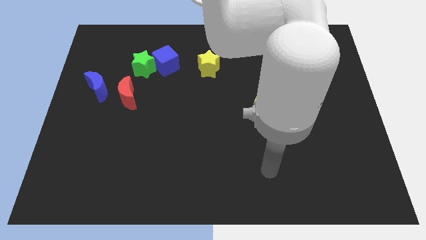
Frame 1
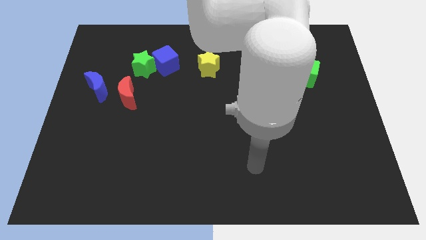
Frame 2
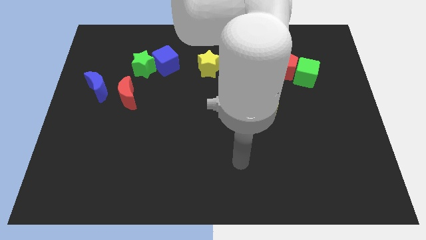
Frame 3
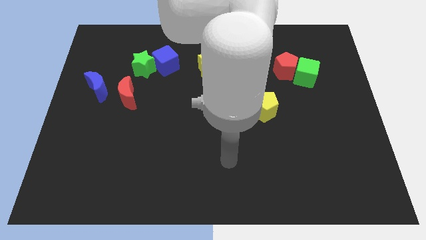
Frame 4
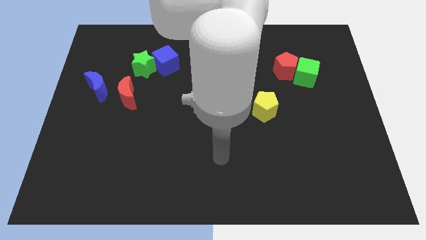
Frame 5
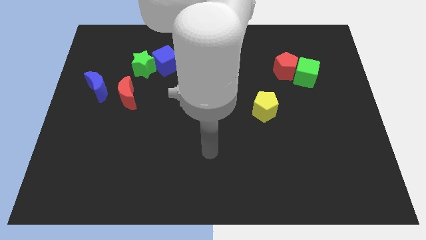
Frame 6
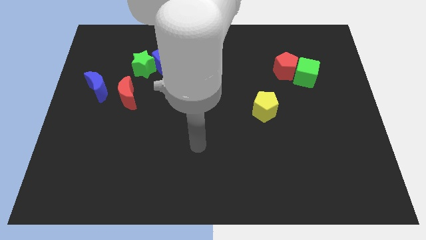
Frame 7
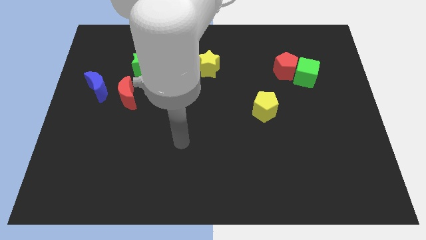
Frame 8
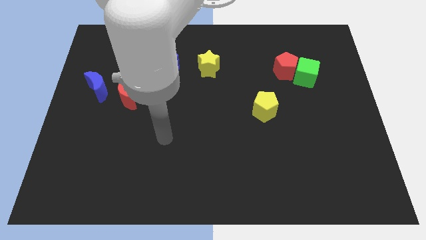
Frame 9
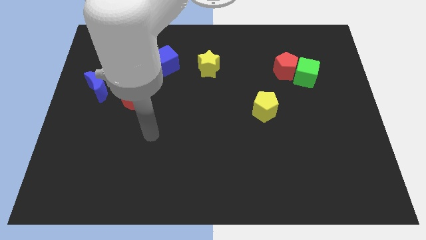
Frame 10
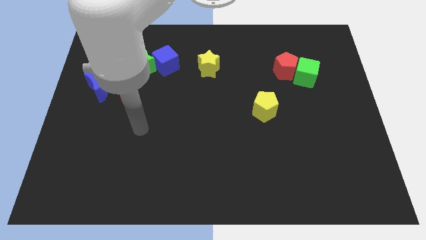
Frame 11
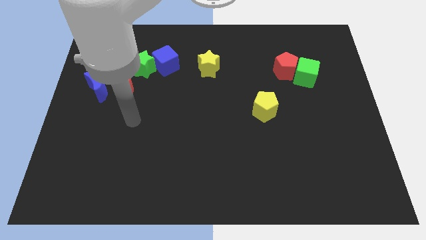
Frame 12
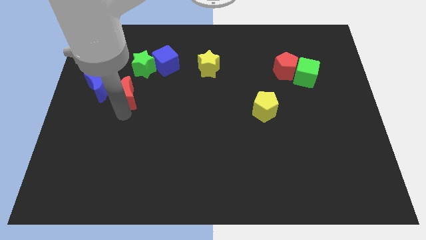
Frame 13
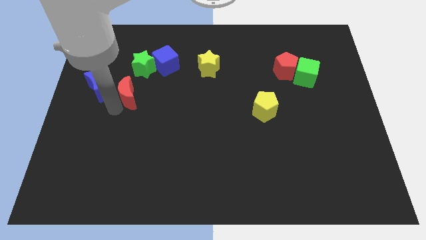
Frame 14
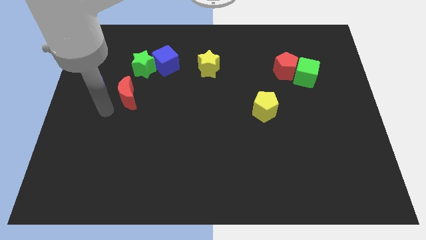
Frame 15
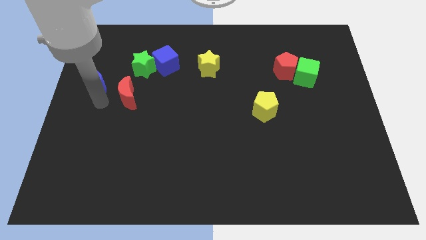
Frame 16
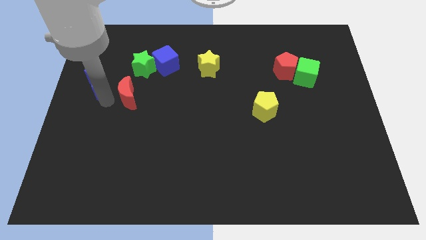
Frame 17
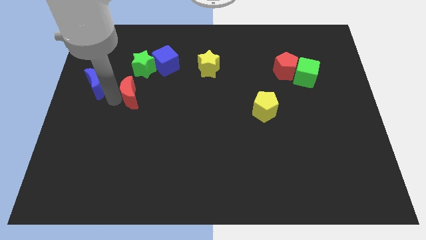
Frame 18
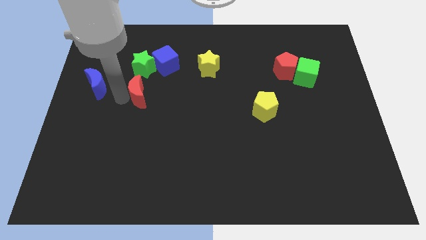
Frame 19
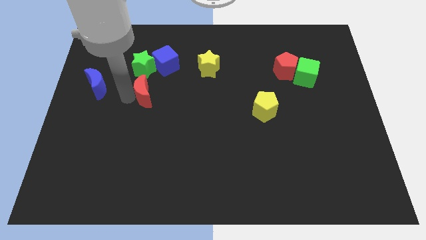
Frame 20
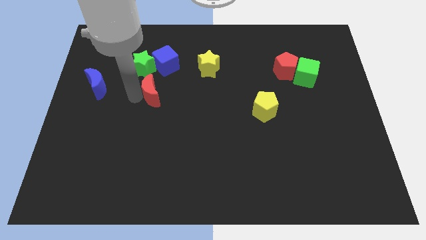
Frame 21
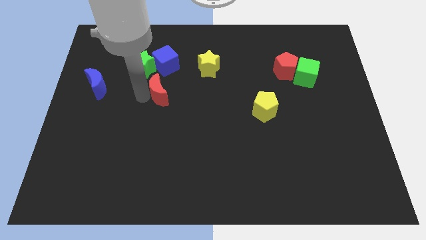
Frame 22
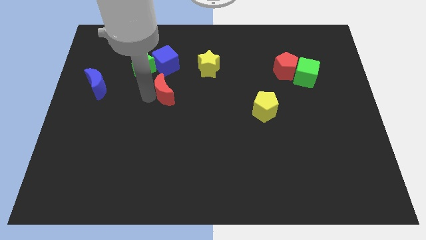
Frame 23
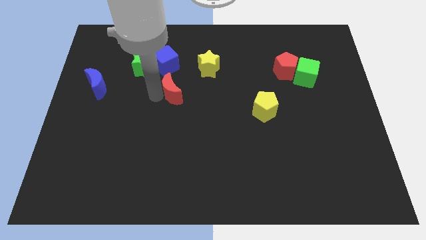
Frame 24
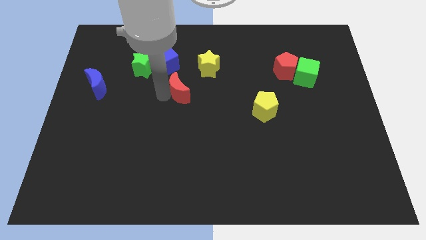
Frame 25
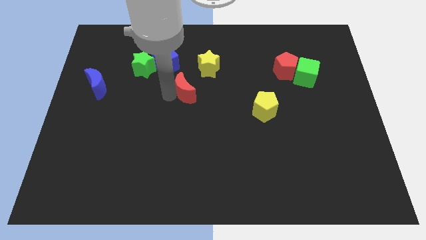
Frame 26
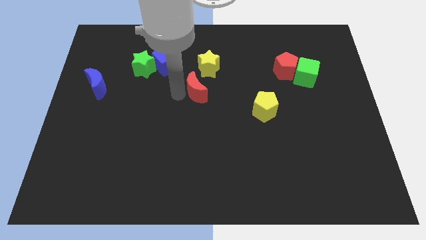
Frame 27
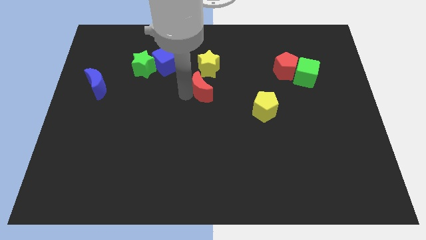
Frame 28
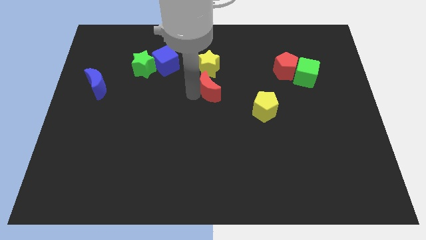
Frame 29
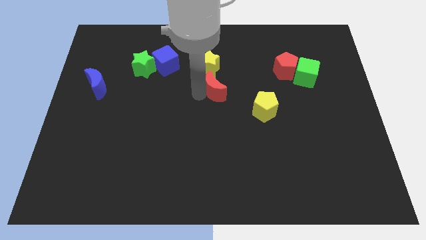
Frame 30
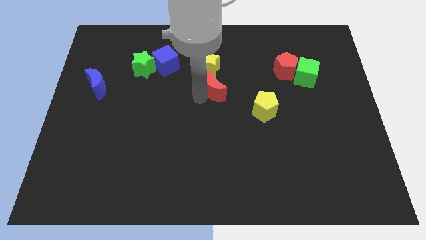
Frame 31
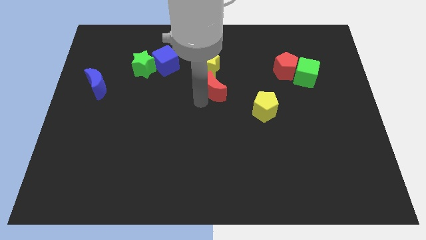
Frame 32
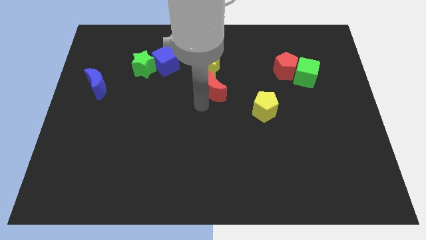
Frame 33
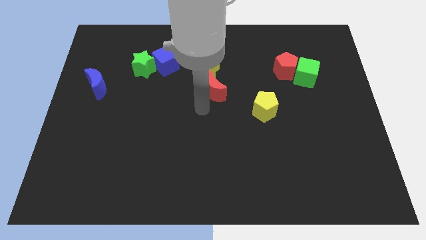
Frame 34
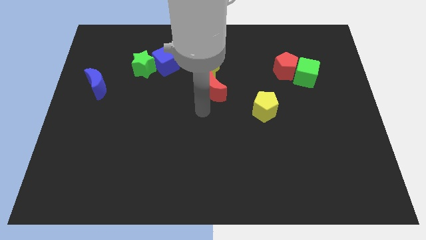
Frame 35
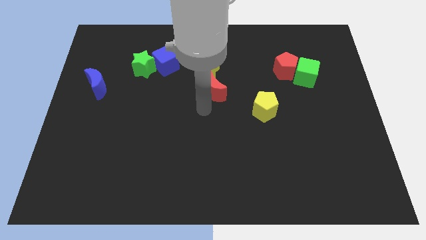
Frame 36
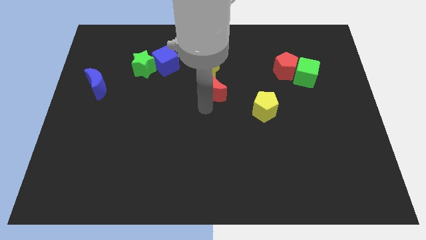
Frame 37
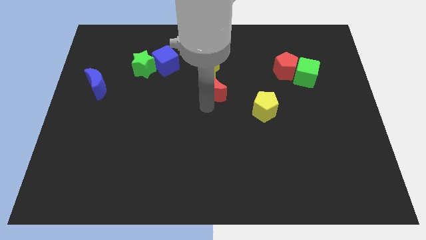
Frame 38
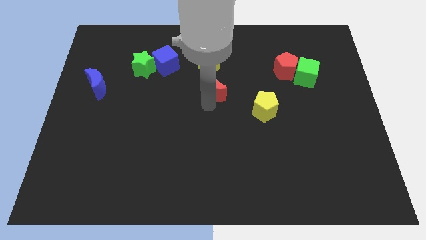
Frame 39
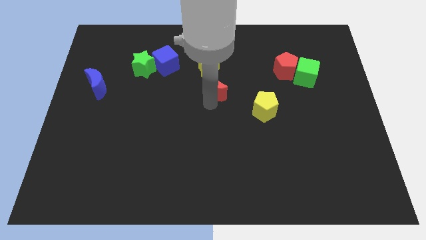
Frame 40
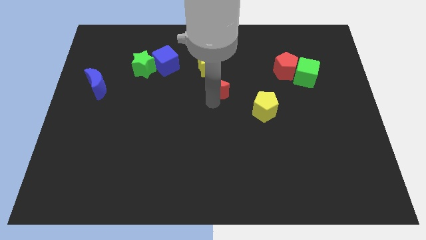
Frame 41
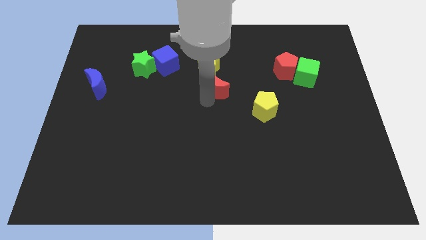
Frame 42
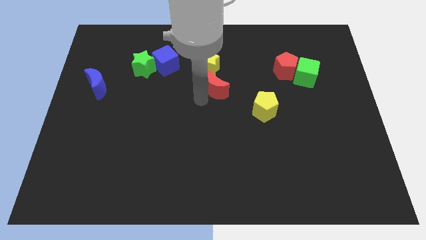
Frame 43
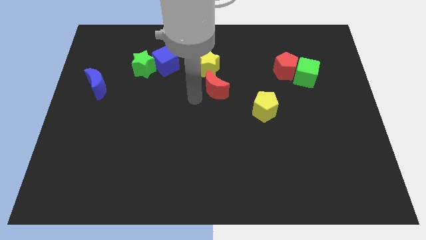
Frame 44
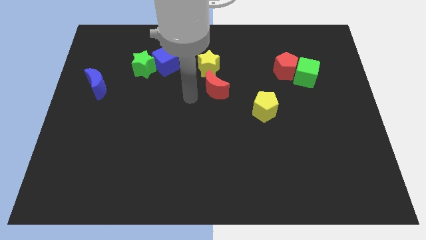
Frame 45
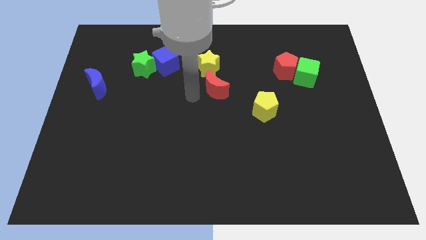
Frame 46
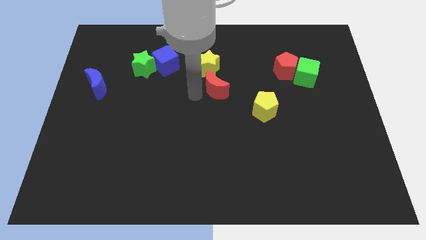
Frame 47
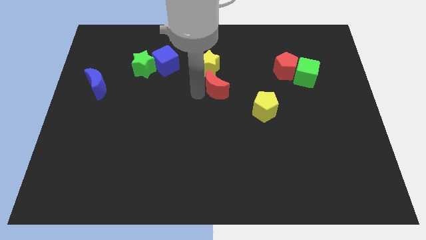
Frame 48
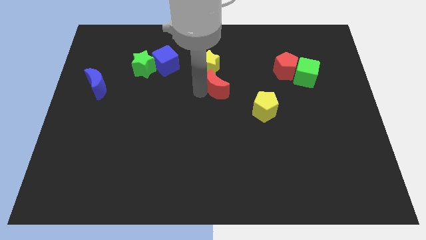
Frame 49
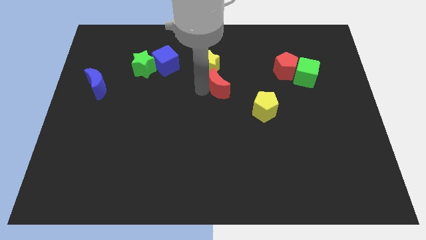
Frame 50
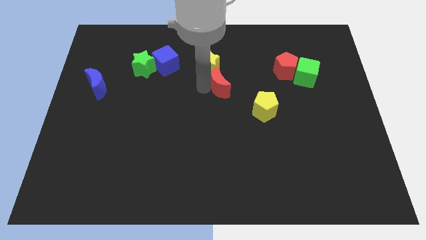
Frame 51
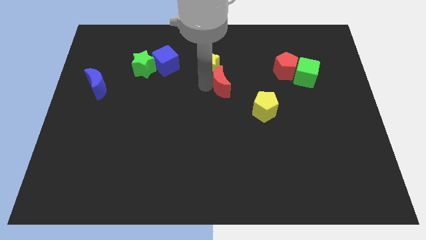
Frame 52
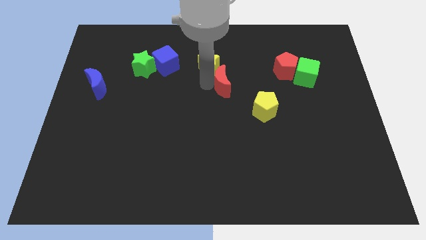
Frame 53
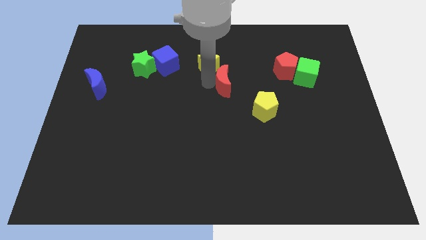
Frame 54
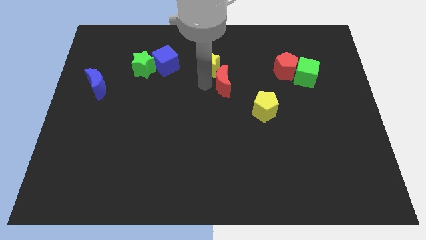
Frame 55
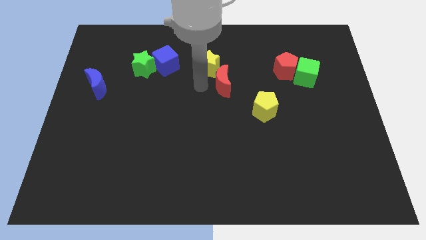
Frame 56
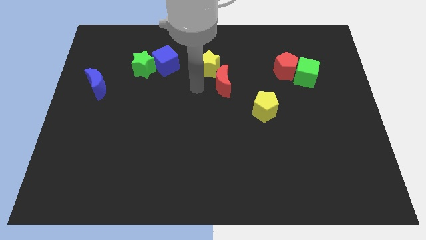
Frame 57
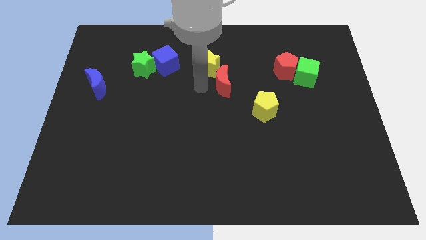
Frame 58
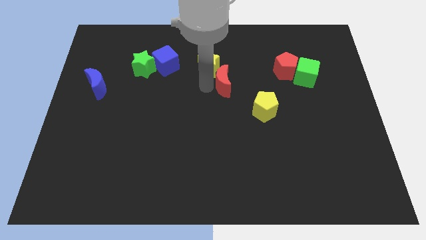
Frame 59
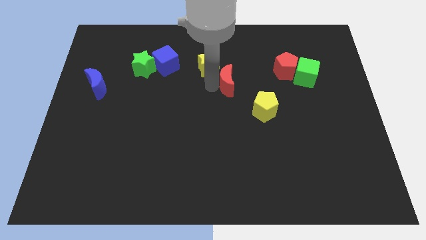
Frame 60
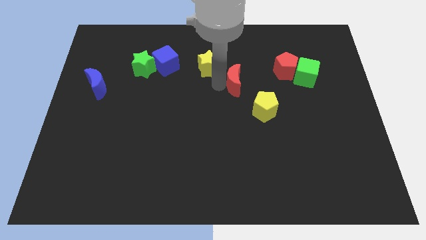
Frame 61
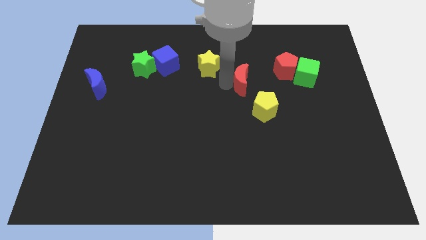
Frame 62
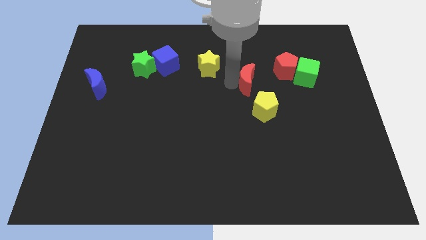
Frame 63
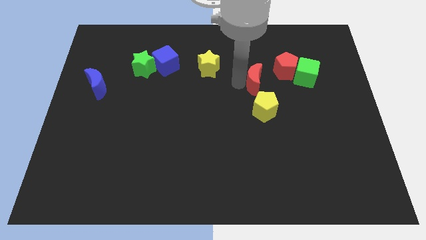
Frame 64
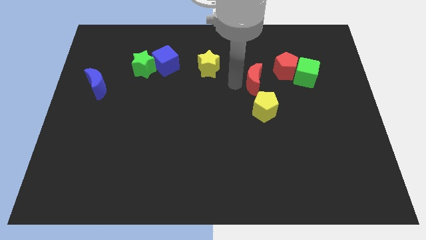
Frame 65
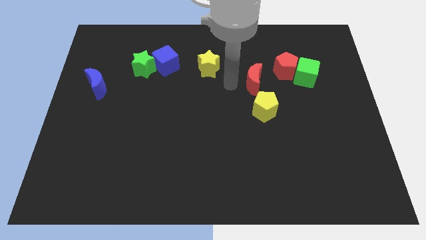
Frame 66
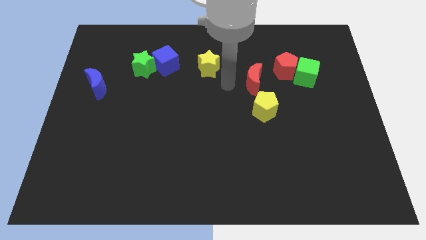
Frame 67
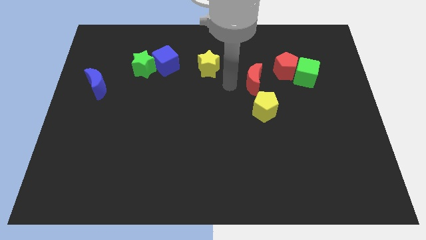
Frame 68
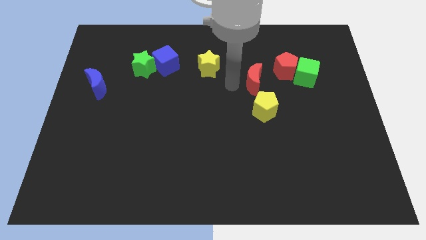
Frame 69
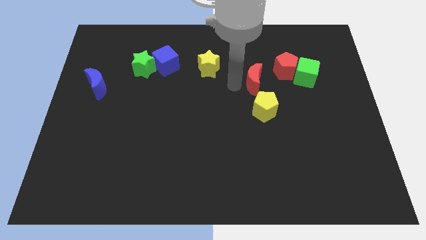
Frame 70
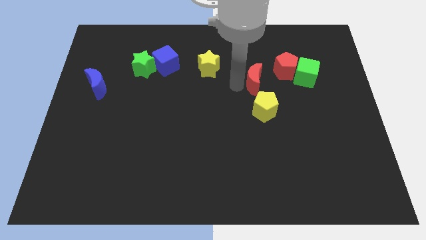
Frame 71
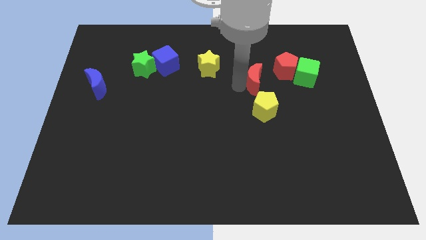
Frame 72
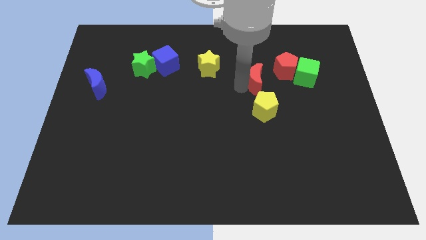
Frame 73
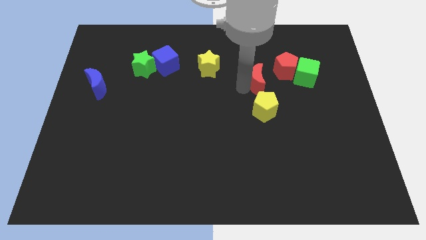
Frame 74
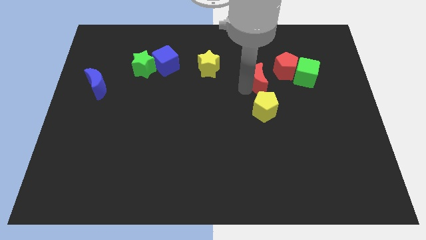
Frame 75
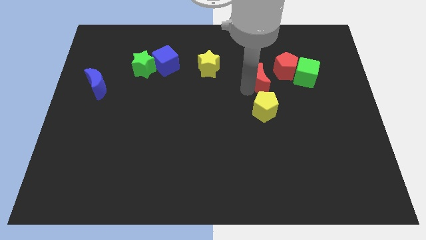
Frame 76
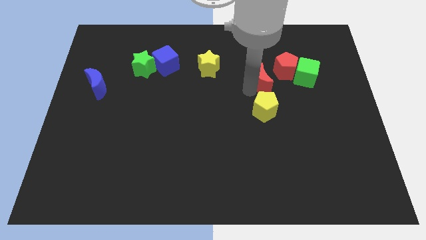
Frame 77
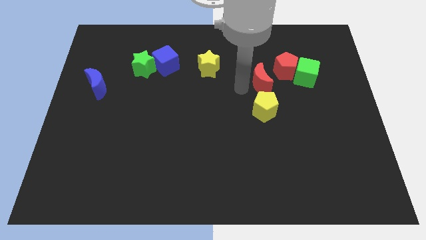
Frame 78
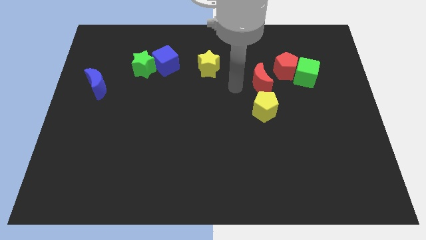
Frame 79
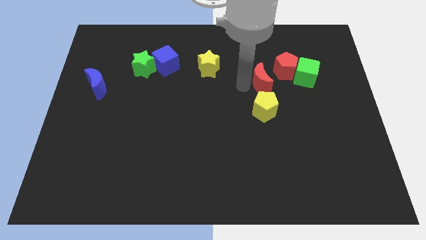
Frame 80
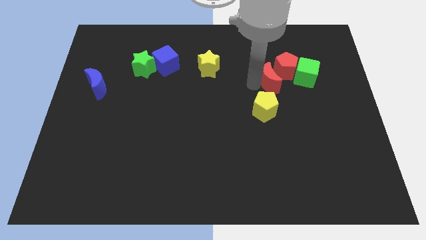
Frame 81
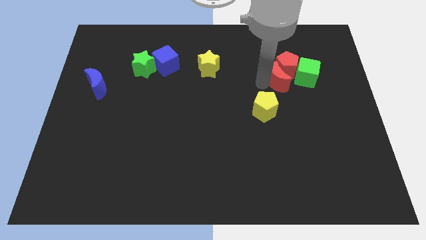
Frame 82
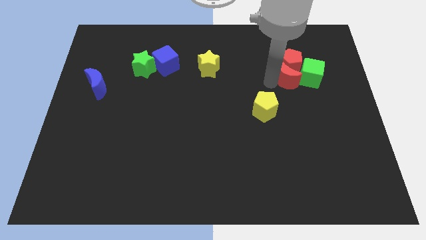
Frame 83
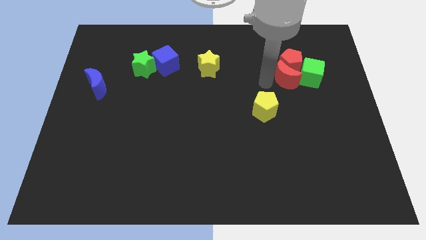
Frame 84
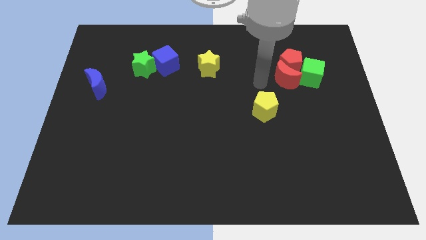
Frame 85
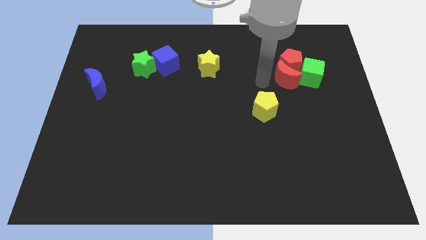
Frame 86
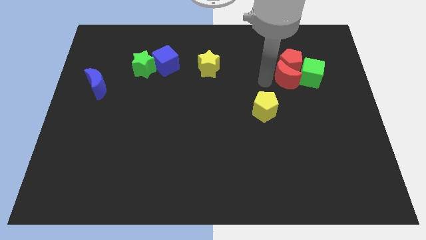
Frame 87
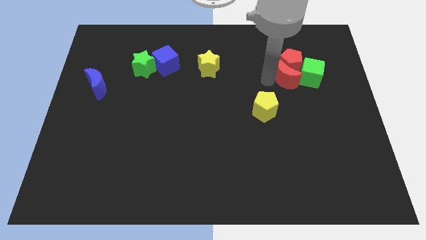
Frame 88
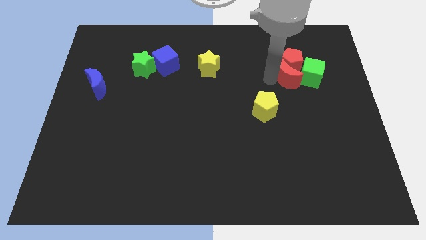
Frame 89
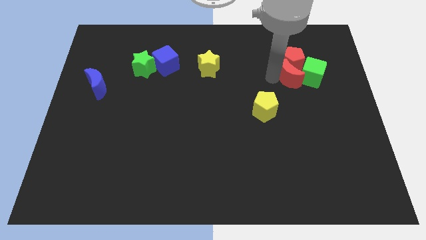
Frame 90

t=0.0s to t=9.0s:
put the red moon to the green cube
